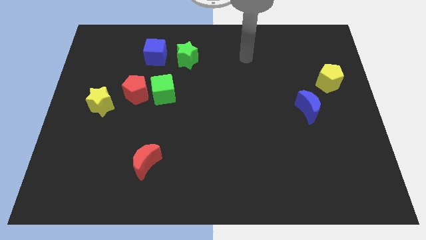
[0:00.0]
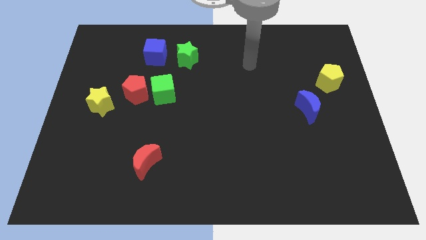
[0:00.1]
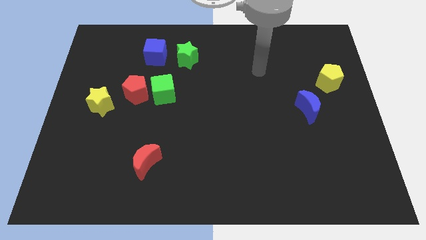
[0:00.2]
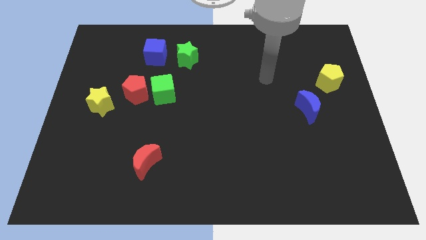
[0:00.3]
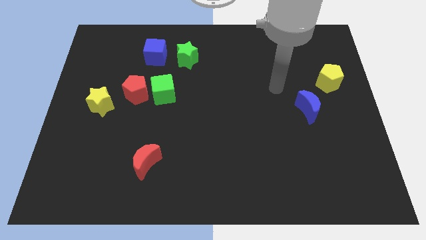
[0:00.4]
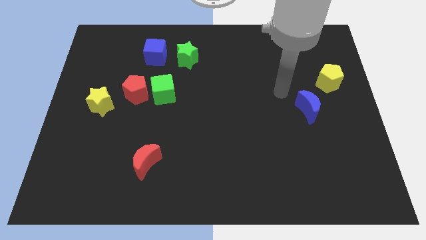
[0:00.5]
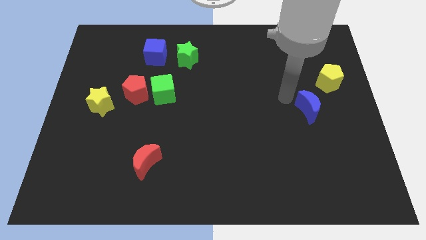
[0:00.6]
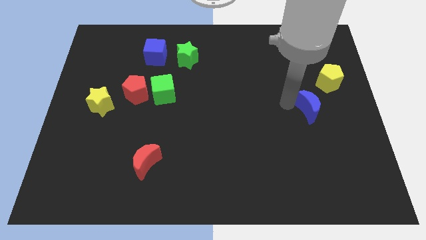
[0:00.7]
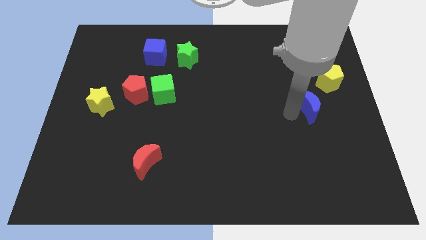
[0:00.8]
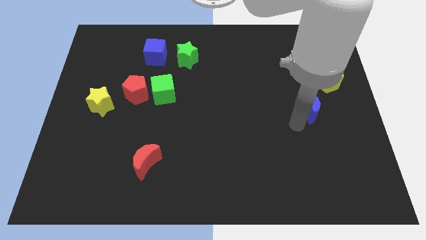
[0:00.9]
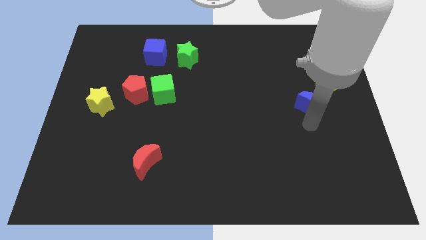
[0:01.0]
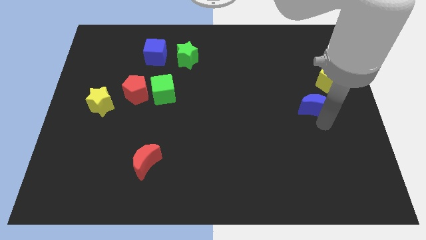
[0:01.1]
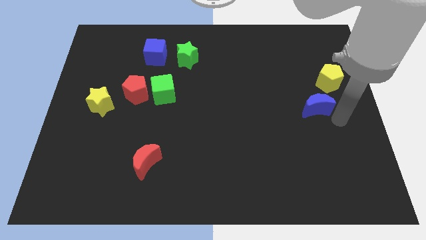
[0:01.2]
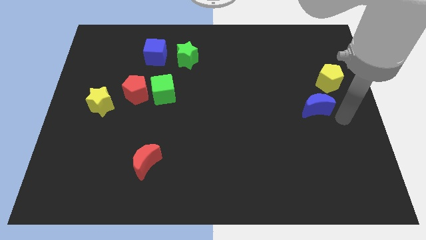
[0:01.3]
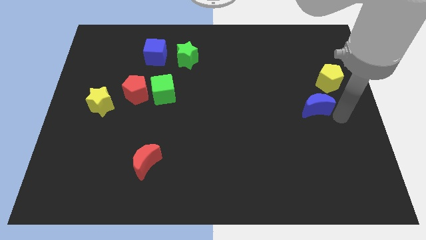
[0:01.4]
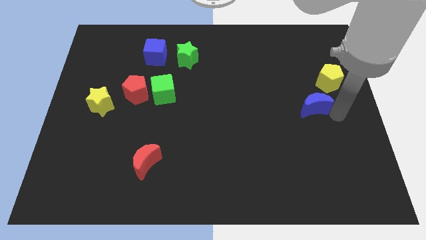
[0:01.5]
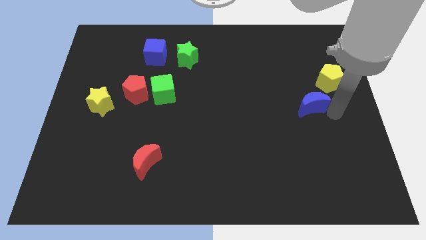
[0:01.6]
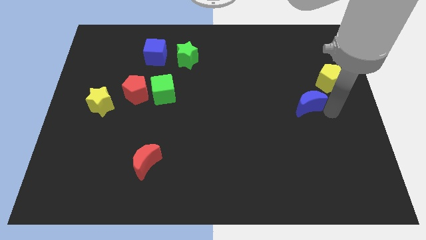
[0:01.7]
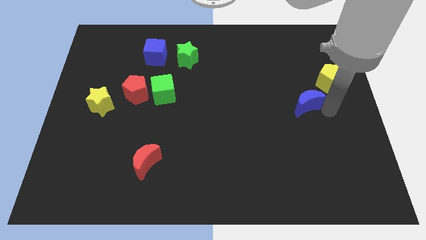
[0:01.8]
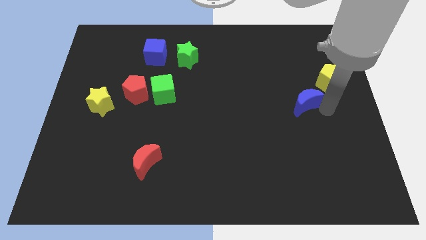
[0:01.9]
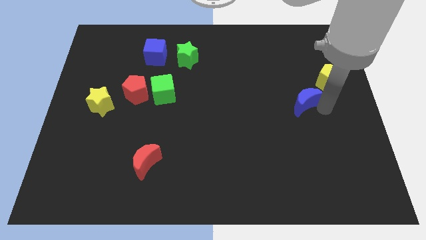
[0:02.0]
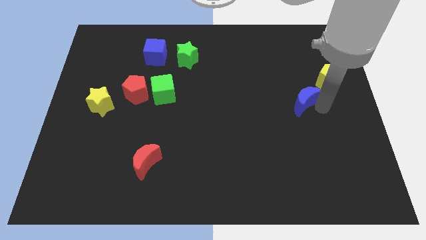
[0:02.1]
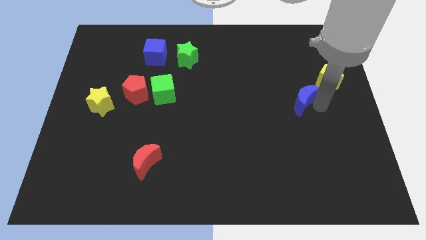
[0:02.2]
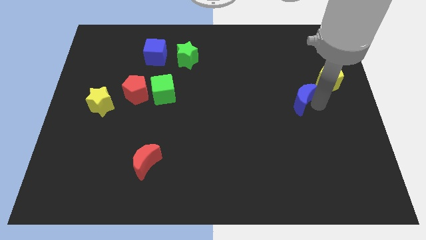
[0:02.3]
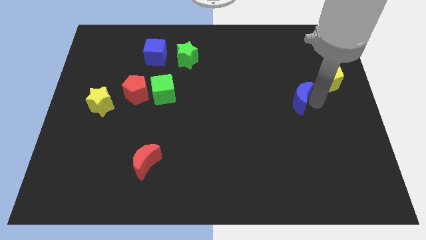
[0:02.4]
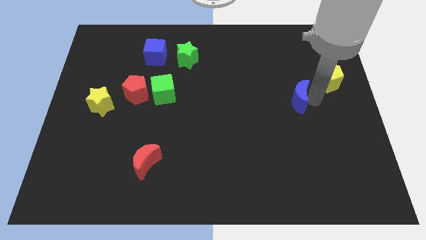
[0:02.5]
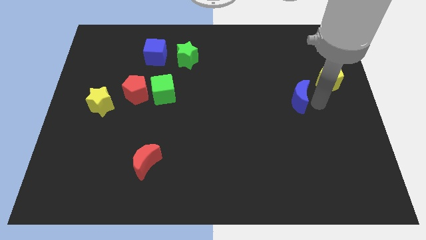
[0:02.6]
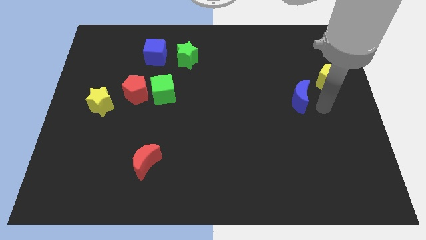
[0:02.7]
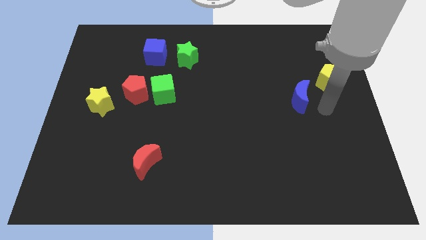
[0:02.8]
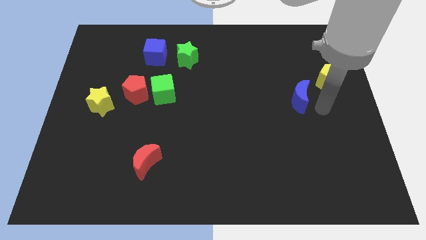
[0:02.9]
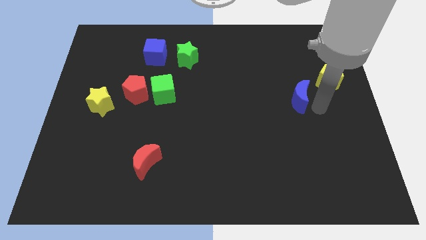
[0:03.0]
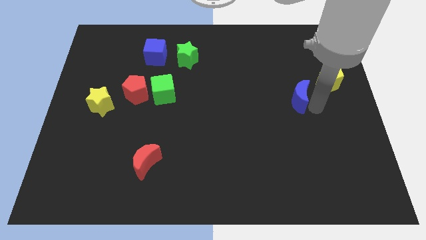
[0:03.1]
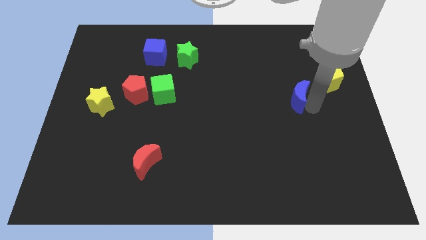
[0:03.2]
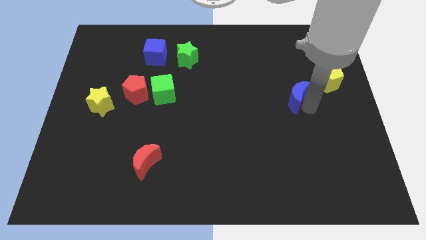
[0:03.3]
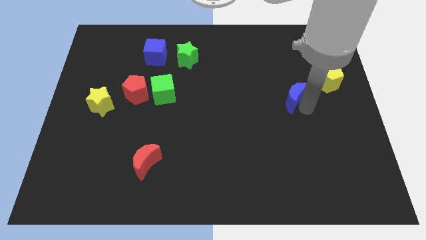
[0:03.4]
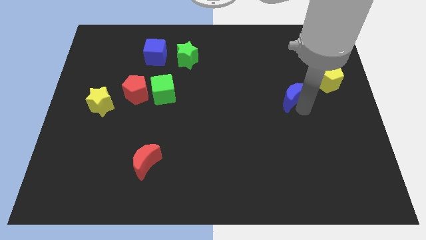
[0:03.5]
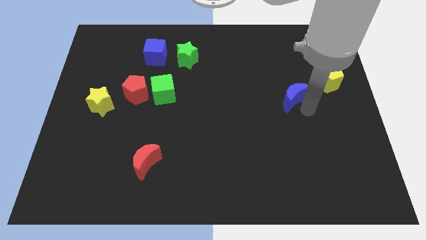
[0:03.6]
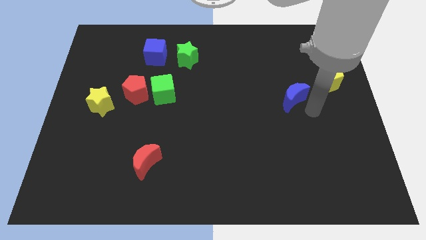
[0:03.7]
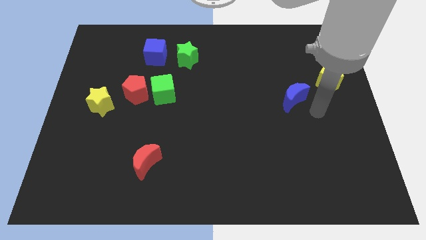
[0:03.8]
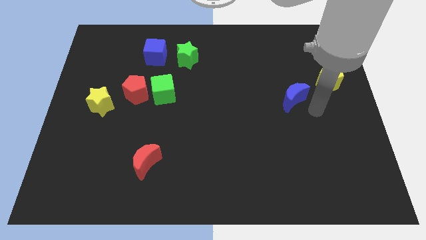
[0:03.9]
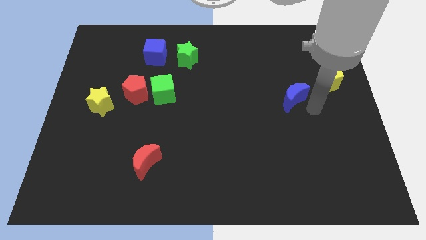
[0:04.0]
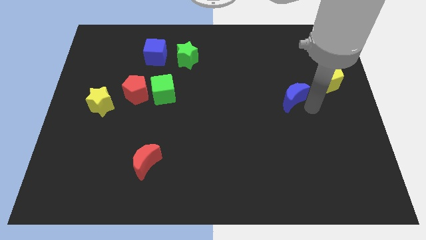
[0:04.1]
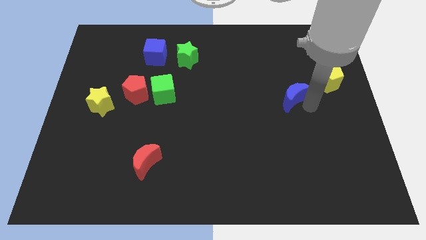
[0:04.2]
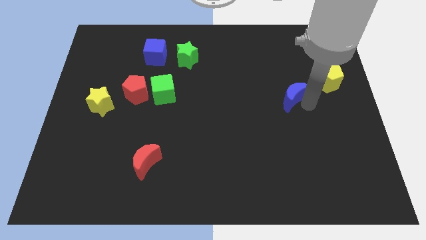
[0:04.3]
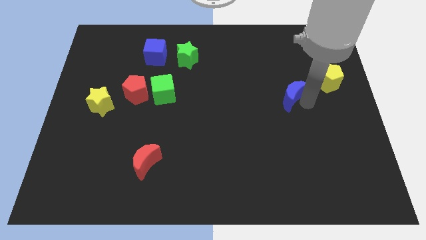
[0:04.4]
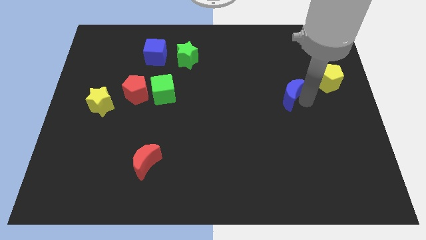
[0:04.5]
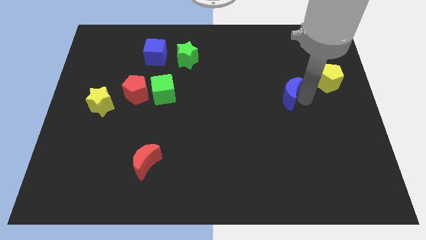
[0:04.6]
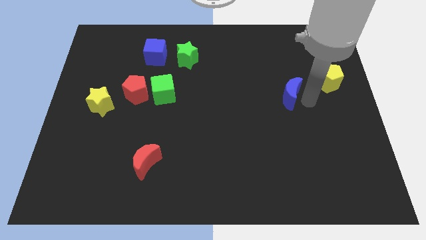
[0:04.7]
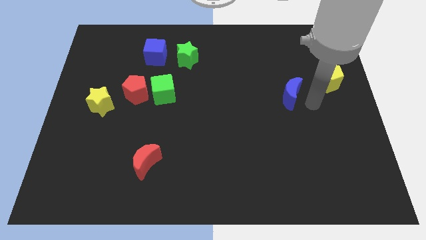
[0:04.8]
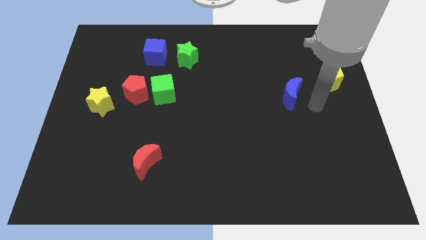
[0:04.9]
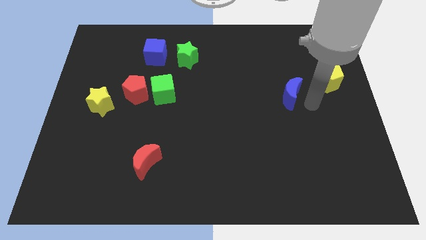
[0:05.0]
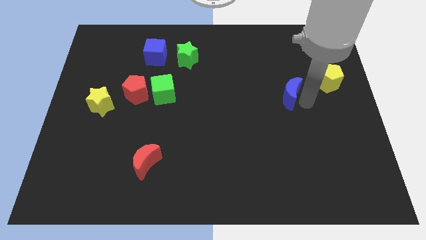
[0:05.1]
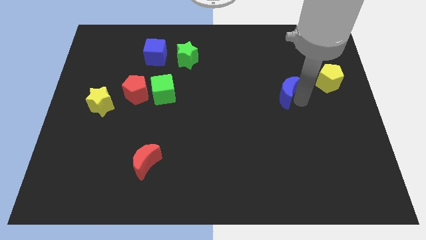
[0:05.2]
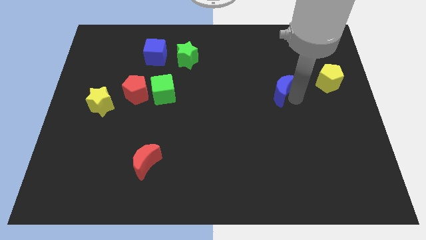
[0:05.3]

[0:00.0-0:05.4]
slightly push the blue moon upwards and then left

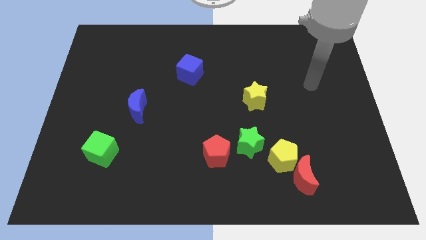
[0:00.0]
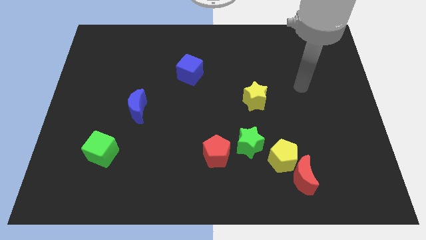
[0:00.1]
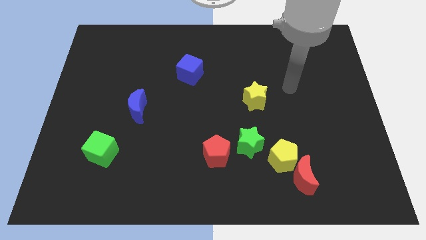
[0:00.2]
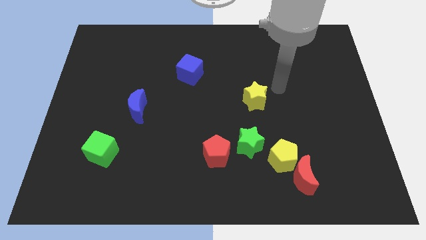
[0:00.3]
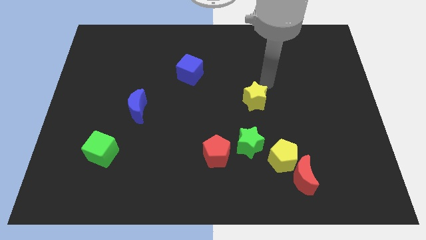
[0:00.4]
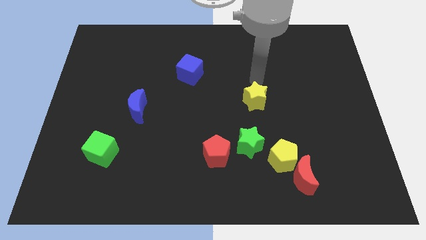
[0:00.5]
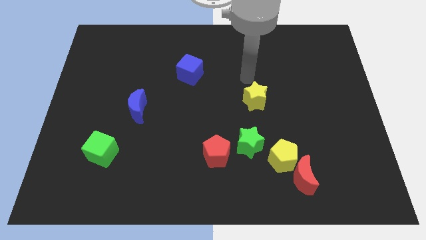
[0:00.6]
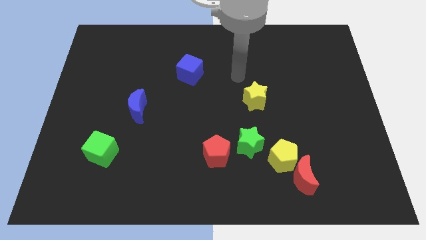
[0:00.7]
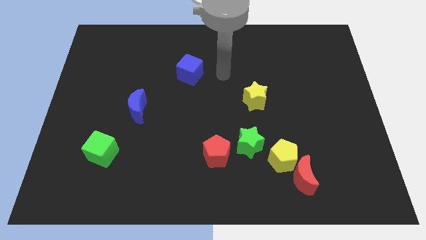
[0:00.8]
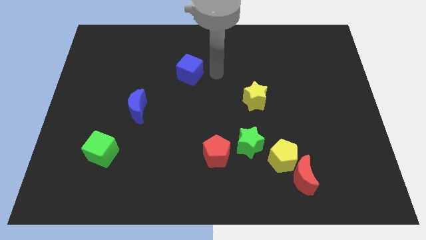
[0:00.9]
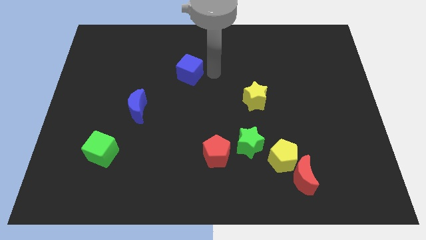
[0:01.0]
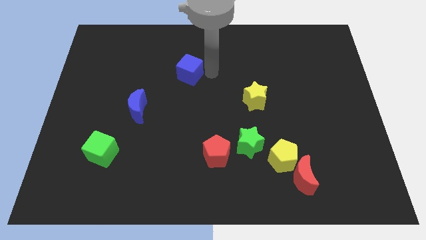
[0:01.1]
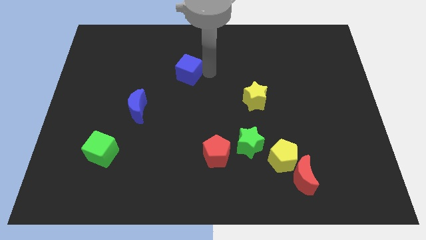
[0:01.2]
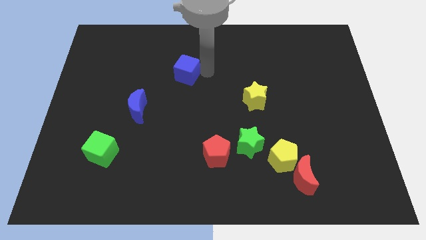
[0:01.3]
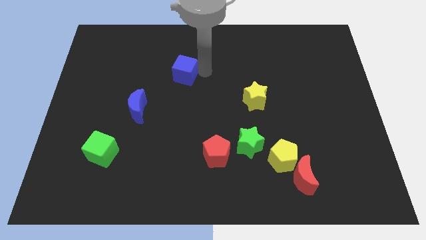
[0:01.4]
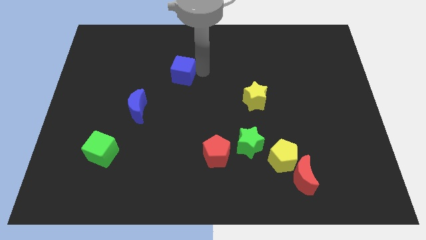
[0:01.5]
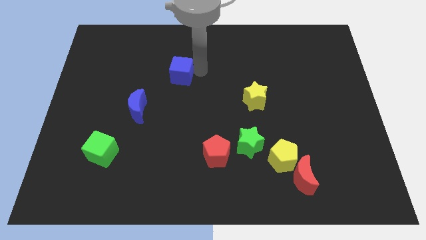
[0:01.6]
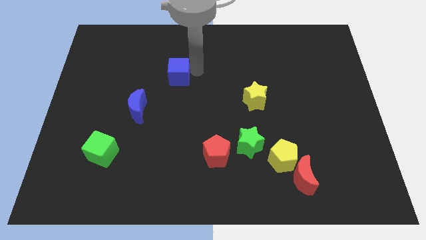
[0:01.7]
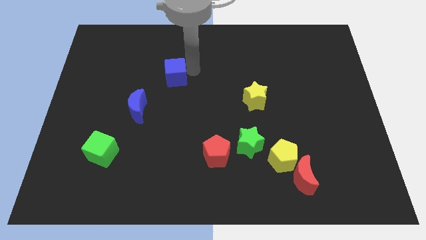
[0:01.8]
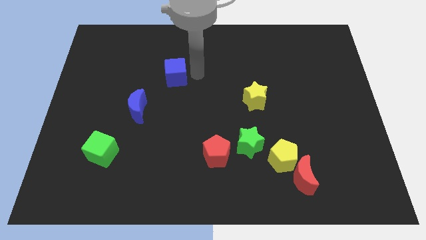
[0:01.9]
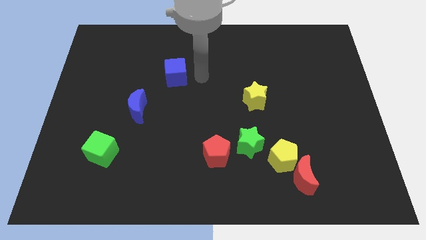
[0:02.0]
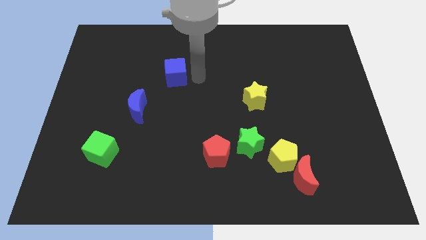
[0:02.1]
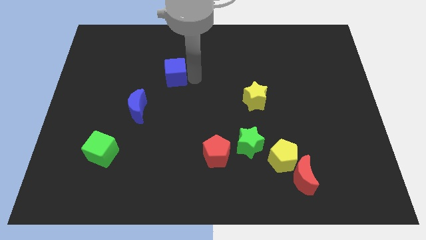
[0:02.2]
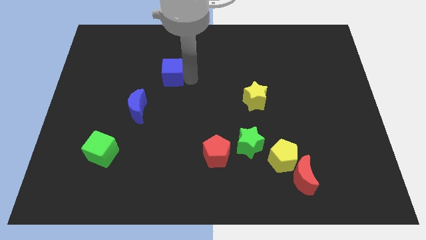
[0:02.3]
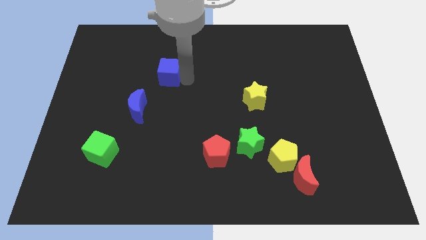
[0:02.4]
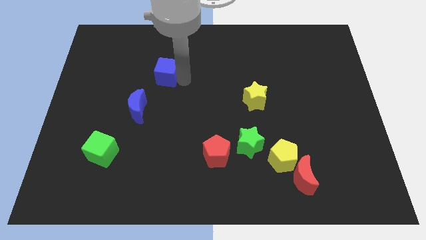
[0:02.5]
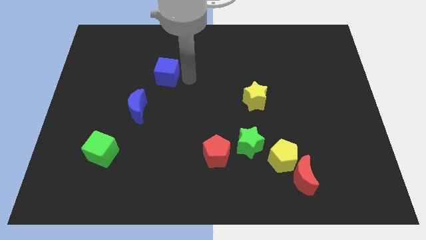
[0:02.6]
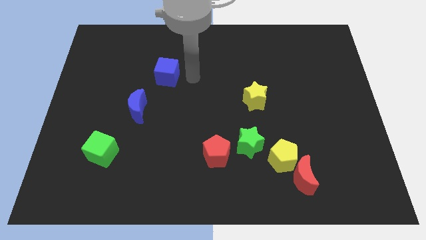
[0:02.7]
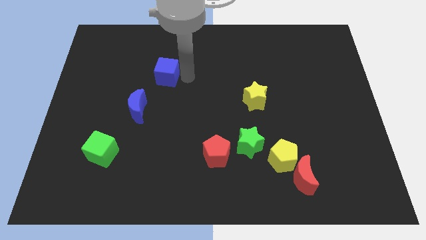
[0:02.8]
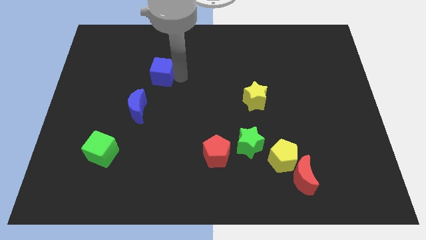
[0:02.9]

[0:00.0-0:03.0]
push the blue cube left a bit
